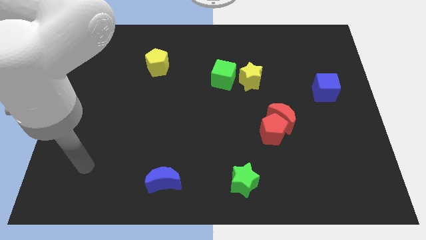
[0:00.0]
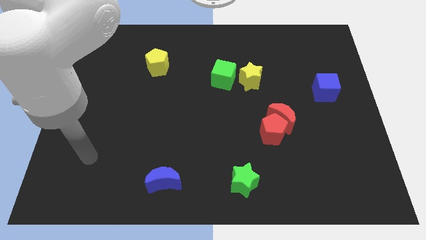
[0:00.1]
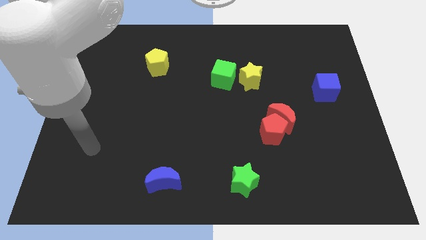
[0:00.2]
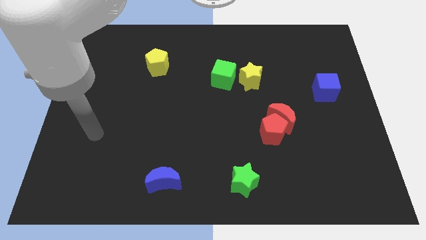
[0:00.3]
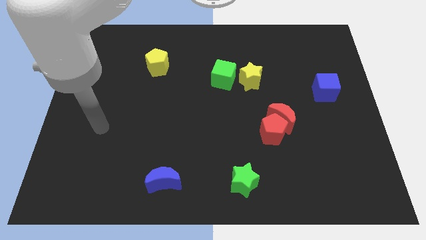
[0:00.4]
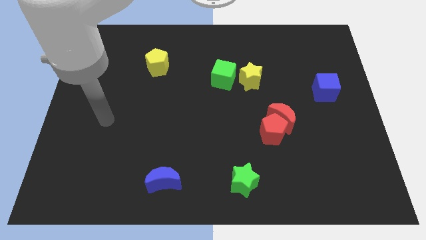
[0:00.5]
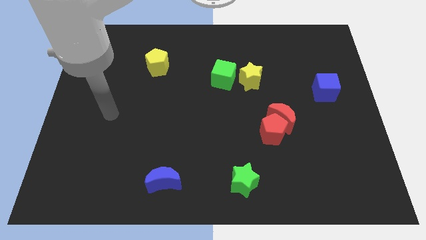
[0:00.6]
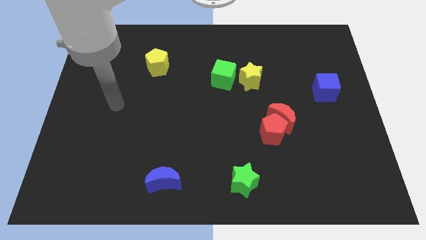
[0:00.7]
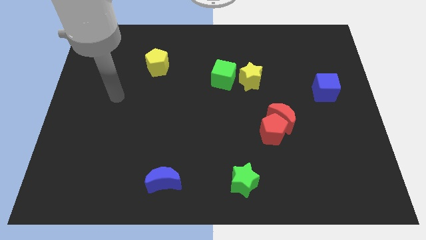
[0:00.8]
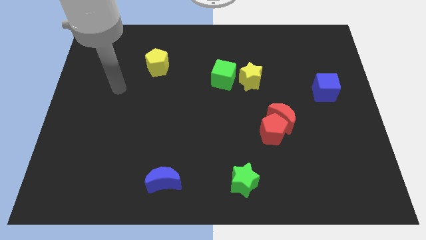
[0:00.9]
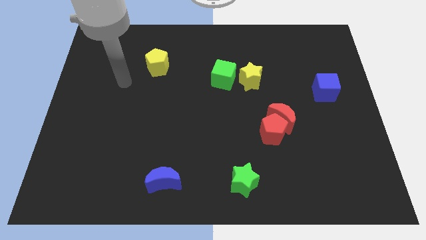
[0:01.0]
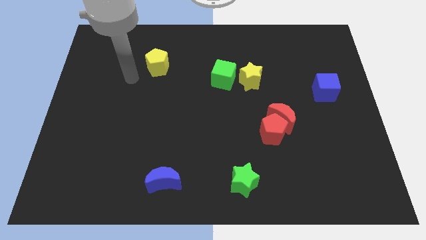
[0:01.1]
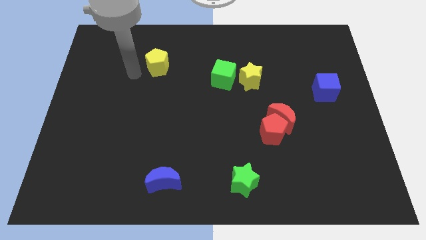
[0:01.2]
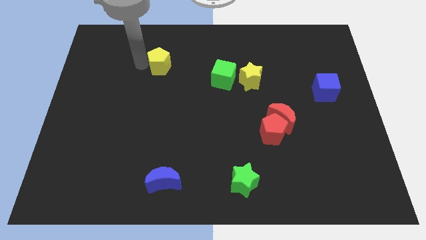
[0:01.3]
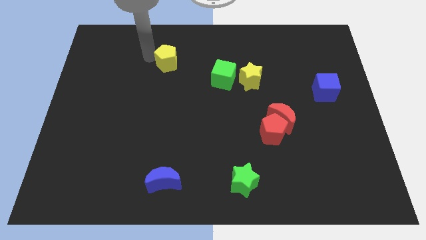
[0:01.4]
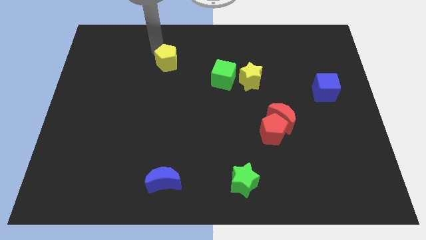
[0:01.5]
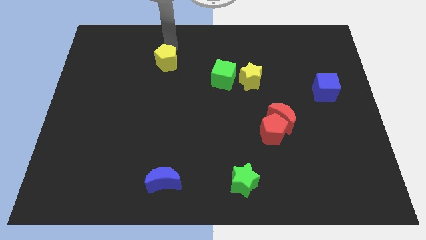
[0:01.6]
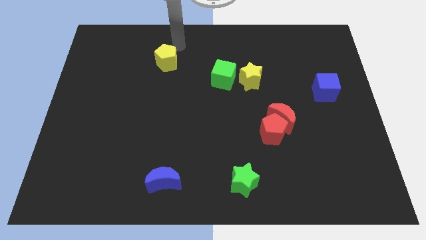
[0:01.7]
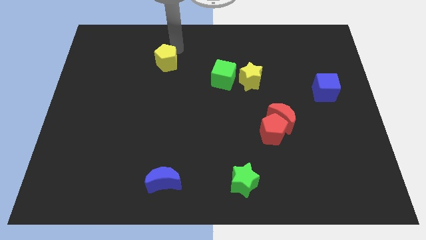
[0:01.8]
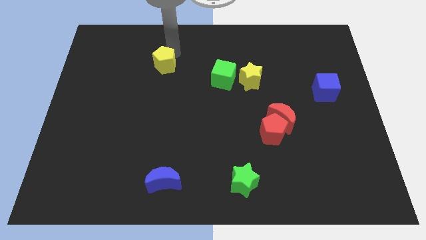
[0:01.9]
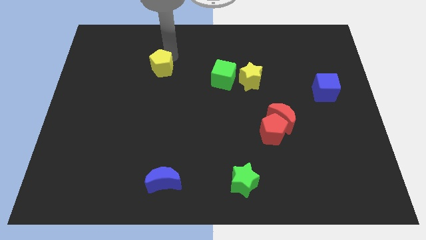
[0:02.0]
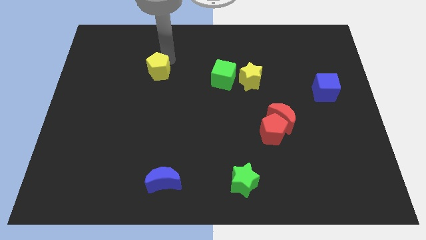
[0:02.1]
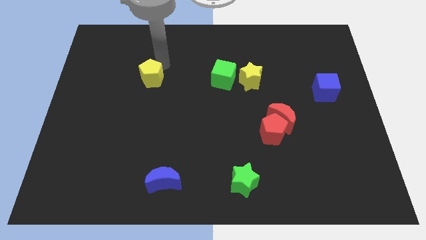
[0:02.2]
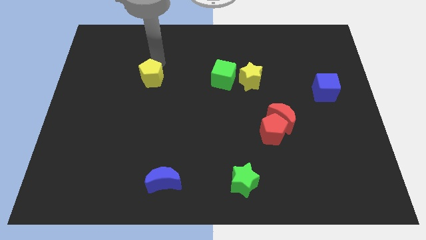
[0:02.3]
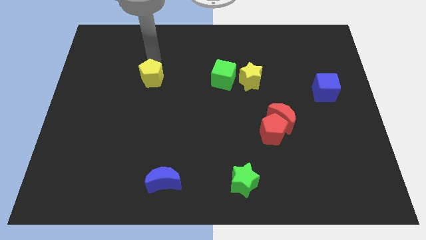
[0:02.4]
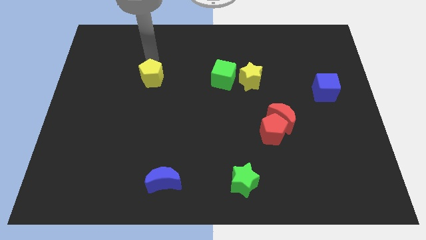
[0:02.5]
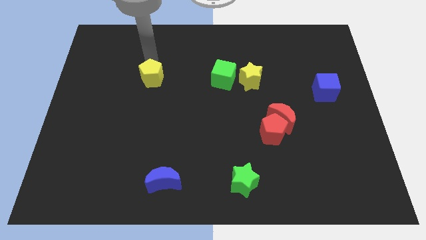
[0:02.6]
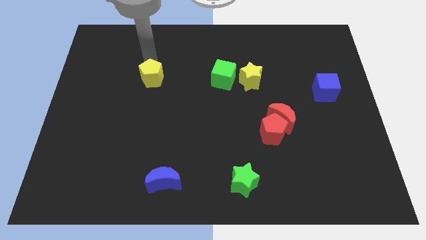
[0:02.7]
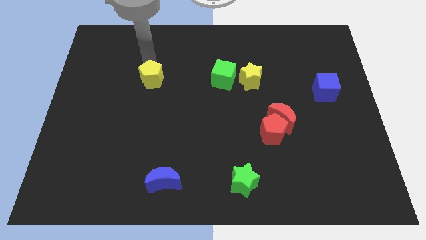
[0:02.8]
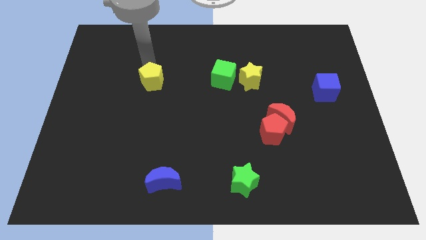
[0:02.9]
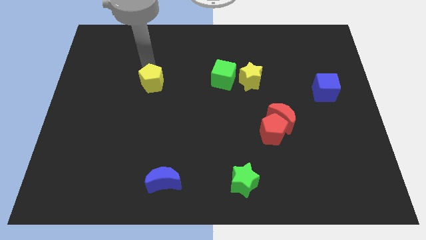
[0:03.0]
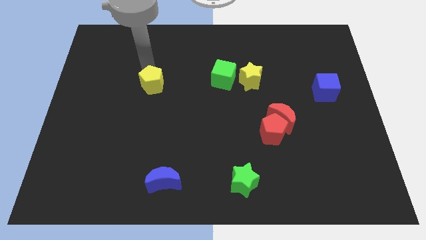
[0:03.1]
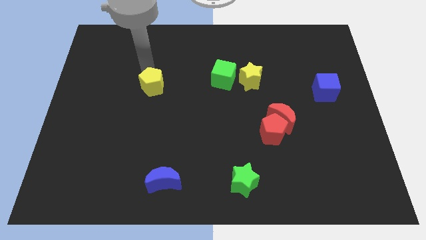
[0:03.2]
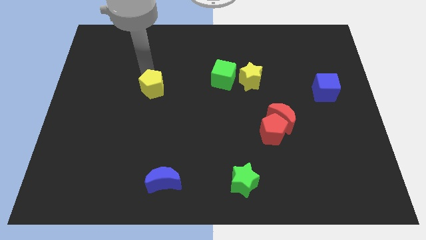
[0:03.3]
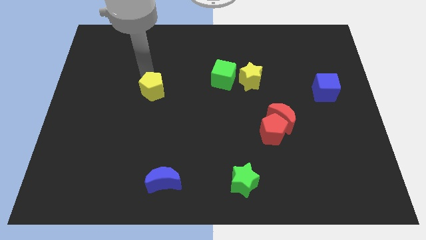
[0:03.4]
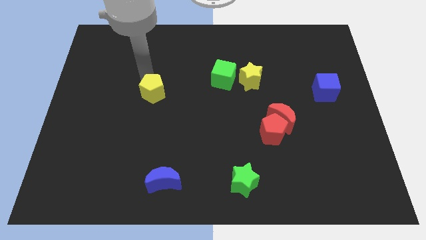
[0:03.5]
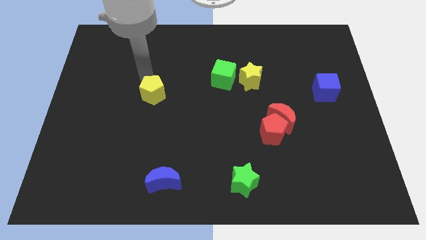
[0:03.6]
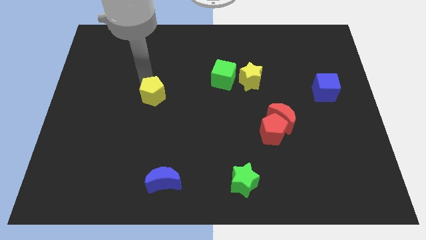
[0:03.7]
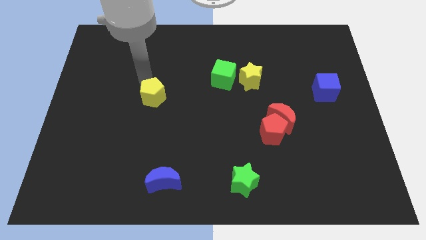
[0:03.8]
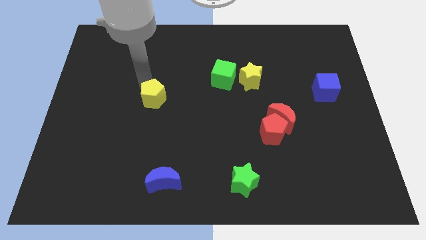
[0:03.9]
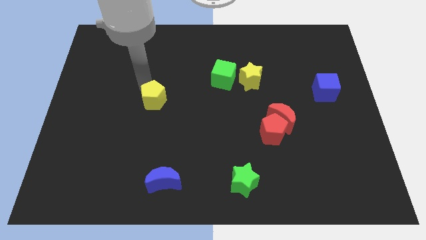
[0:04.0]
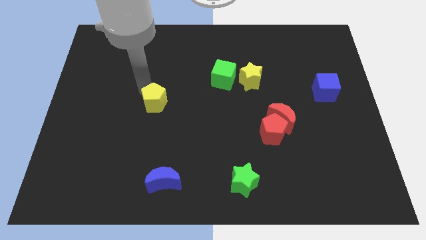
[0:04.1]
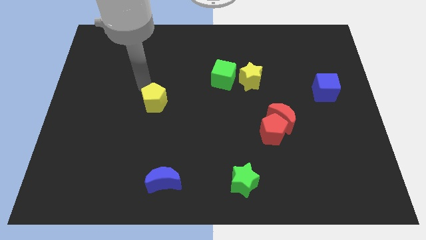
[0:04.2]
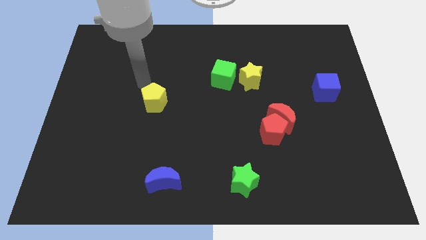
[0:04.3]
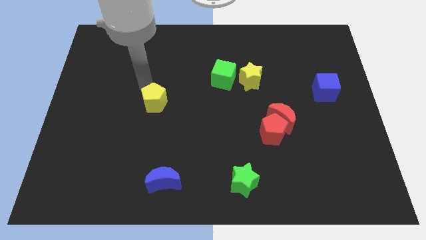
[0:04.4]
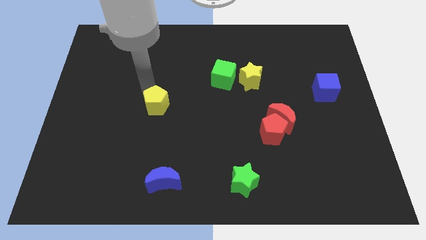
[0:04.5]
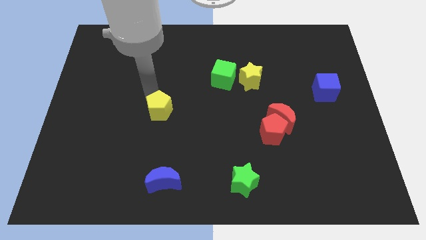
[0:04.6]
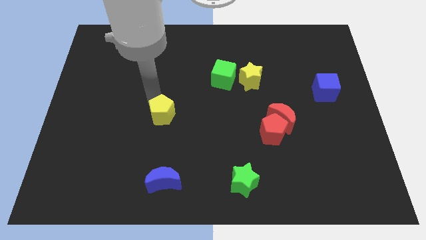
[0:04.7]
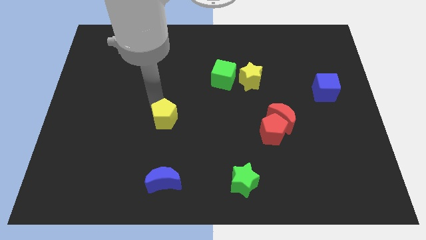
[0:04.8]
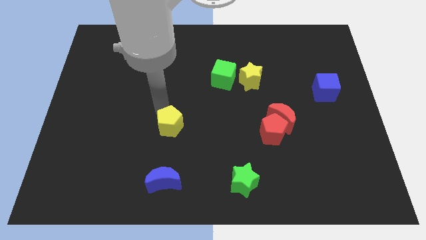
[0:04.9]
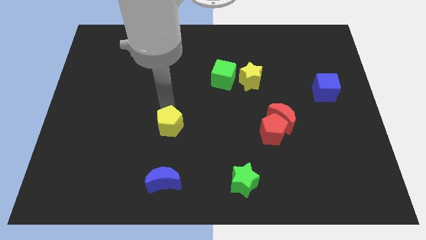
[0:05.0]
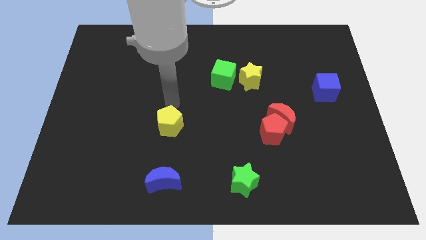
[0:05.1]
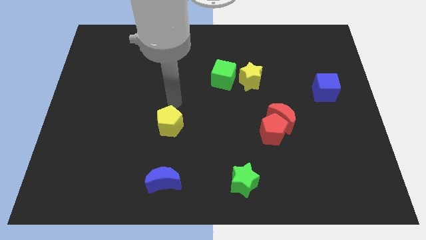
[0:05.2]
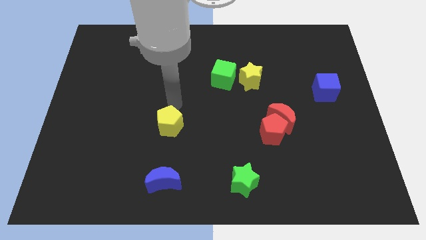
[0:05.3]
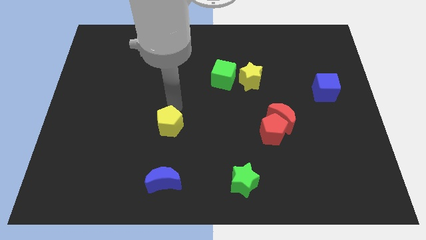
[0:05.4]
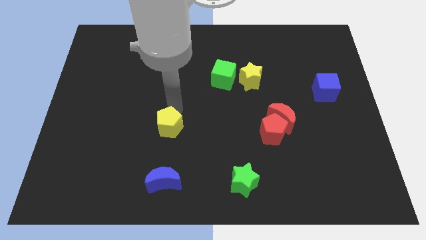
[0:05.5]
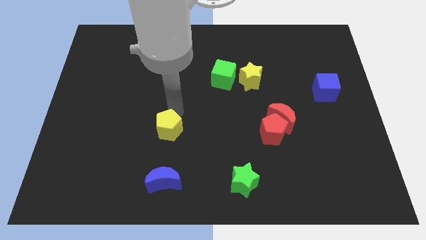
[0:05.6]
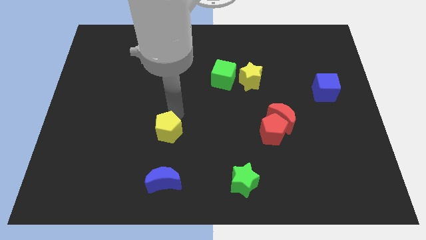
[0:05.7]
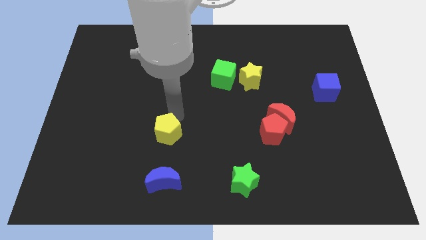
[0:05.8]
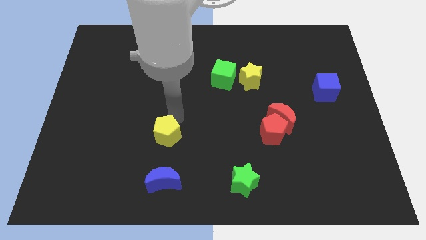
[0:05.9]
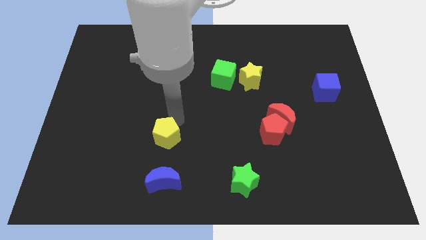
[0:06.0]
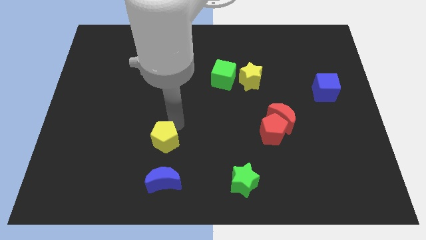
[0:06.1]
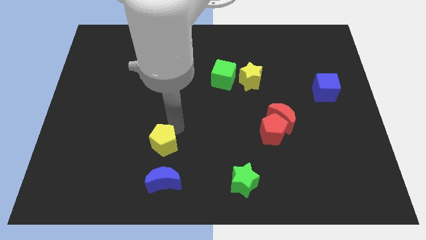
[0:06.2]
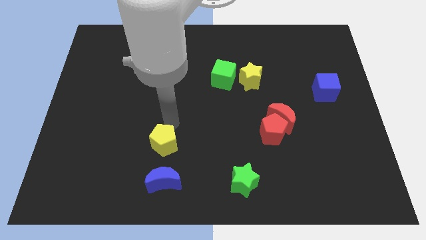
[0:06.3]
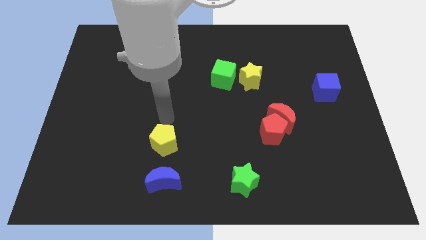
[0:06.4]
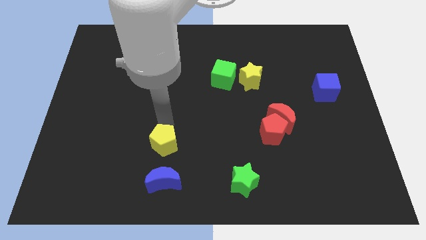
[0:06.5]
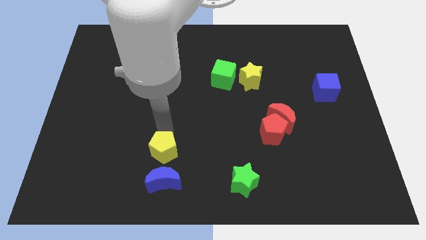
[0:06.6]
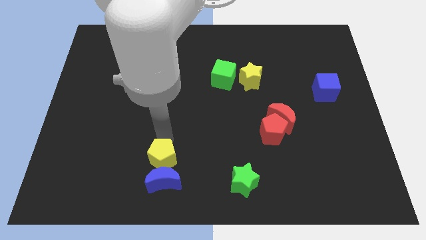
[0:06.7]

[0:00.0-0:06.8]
push the yellow pentagon next to the blue moon
